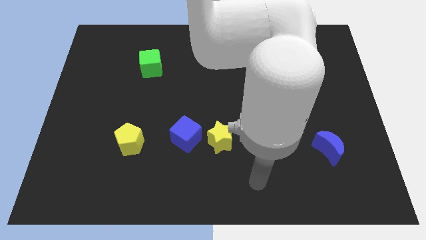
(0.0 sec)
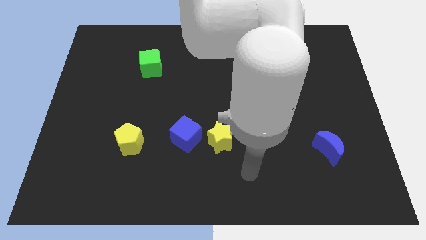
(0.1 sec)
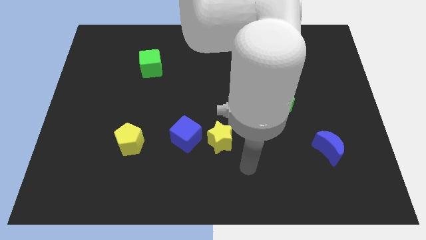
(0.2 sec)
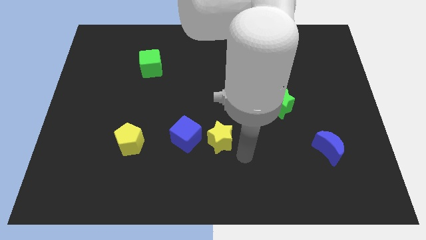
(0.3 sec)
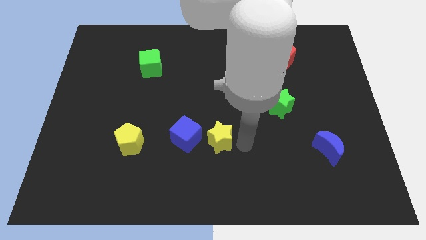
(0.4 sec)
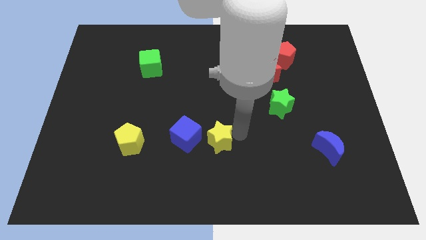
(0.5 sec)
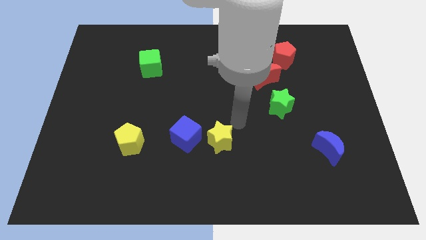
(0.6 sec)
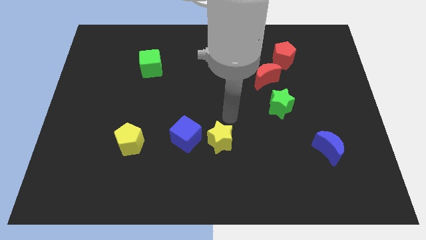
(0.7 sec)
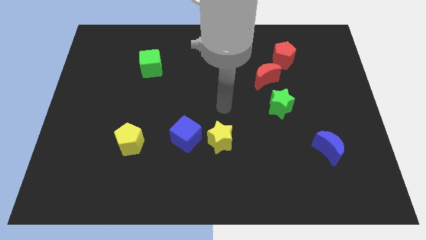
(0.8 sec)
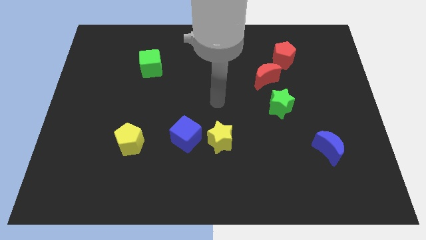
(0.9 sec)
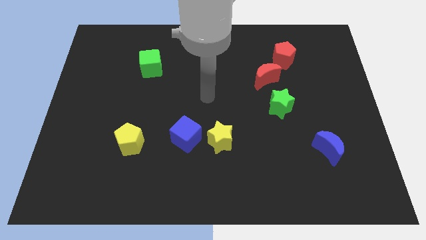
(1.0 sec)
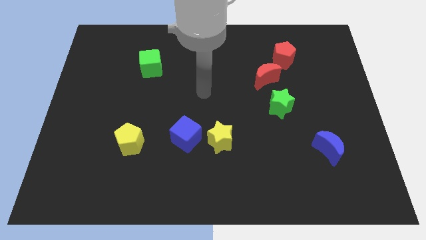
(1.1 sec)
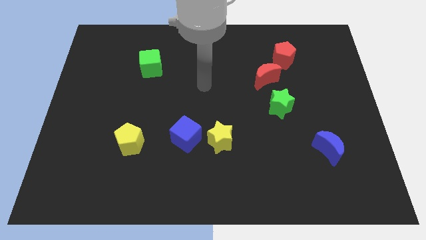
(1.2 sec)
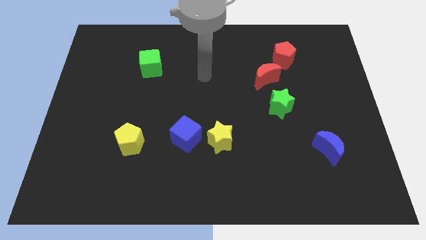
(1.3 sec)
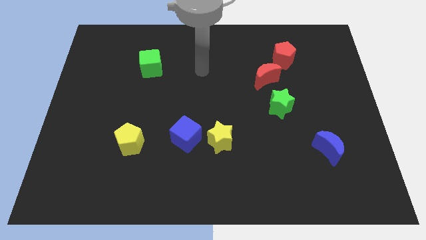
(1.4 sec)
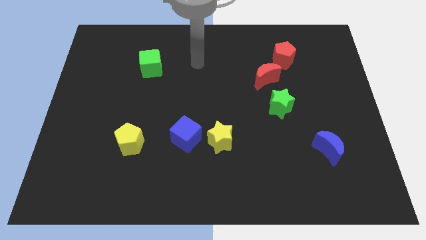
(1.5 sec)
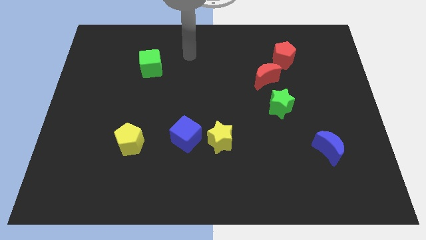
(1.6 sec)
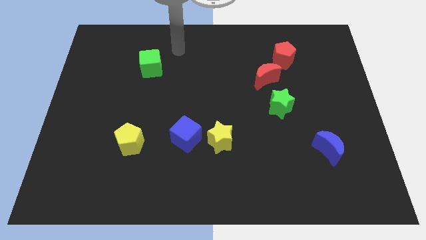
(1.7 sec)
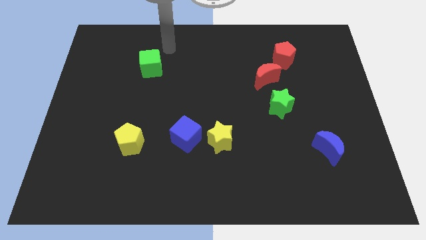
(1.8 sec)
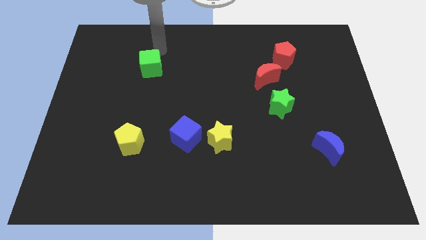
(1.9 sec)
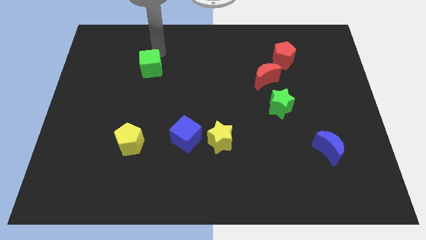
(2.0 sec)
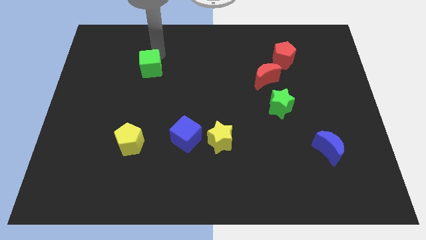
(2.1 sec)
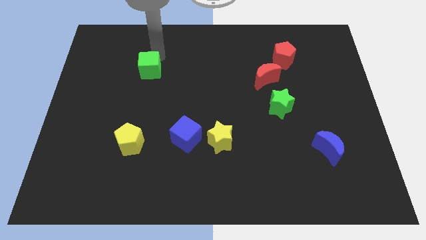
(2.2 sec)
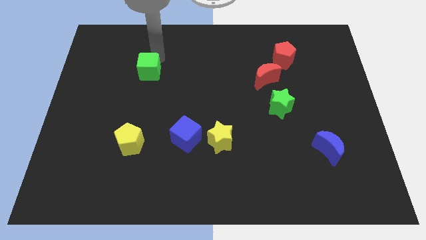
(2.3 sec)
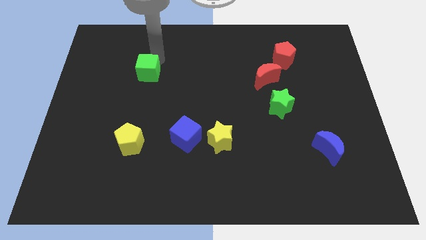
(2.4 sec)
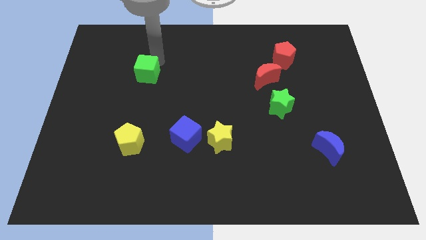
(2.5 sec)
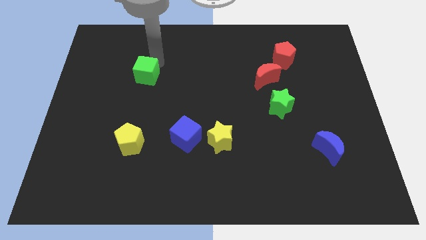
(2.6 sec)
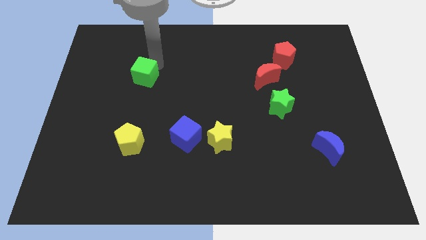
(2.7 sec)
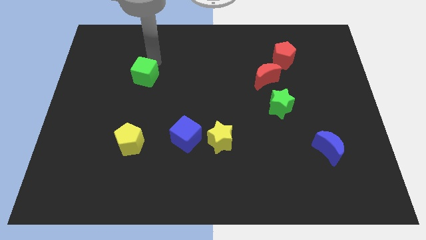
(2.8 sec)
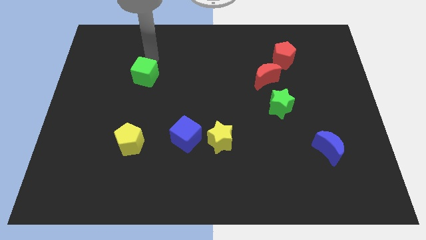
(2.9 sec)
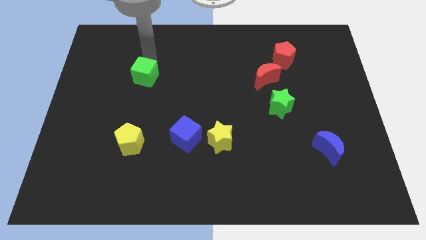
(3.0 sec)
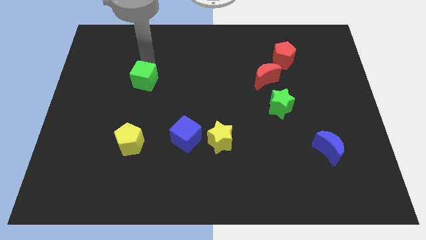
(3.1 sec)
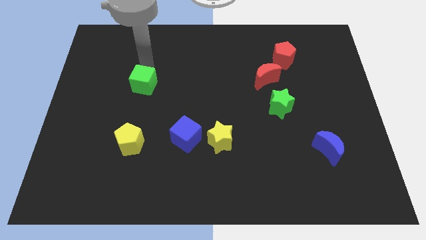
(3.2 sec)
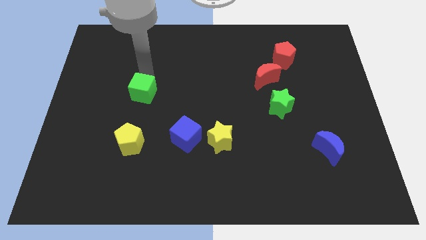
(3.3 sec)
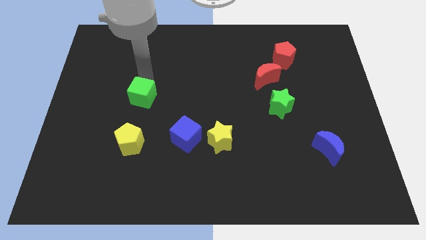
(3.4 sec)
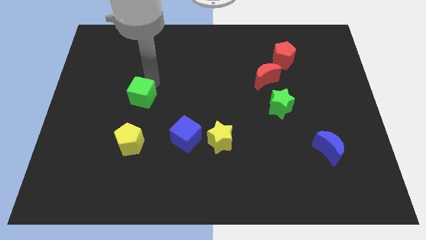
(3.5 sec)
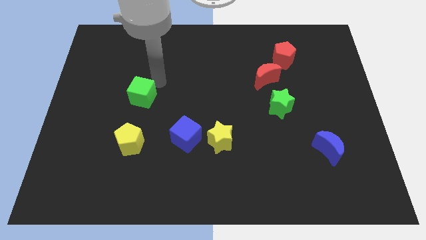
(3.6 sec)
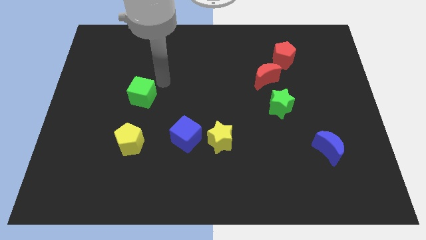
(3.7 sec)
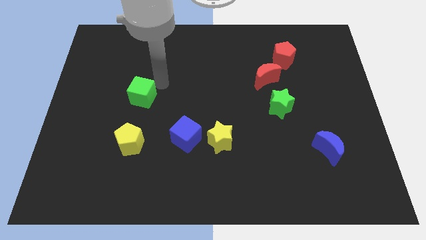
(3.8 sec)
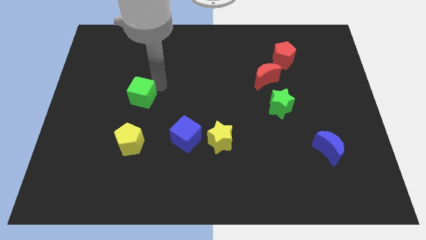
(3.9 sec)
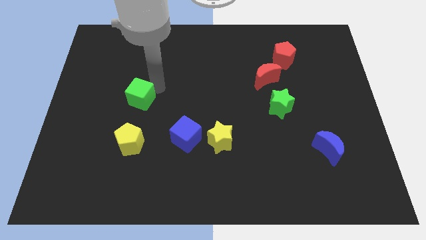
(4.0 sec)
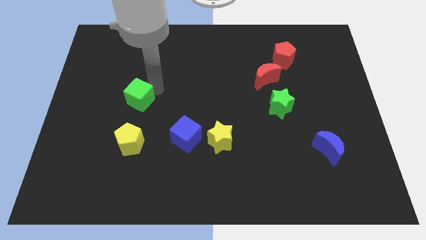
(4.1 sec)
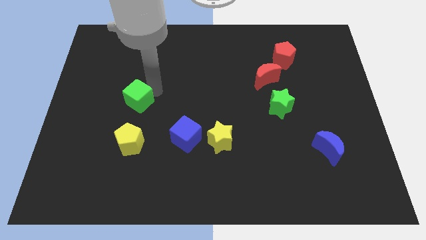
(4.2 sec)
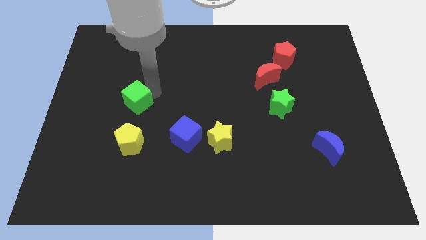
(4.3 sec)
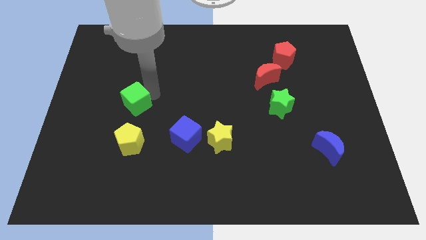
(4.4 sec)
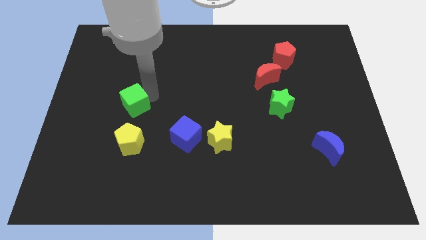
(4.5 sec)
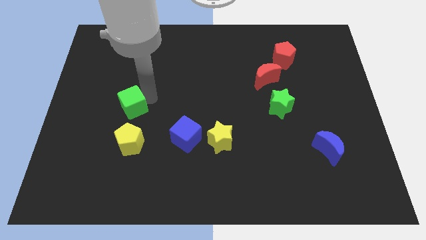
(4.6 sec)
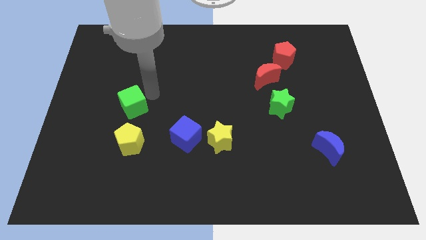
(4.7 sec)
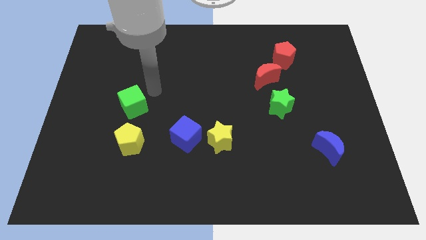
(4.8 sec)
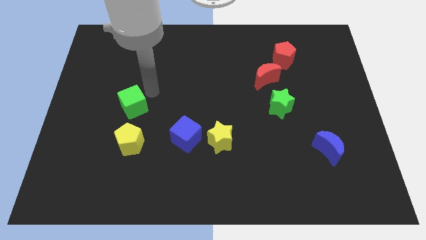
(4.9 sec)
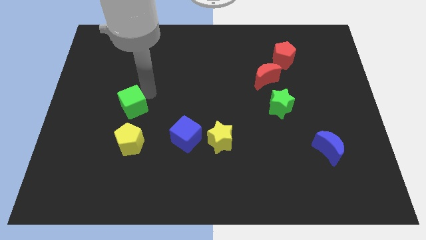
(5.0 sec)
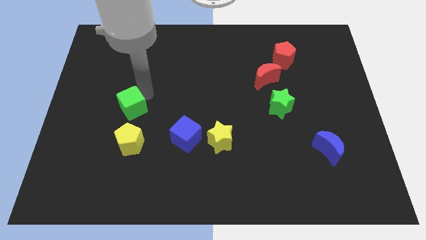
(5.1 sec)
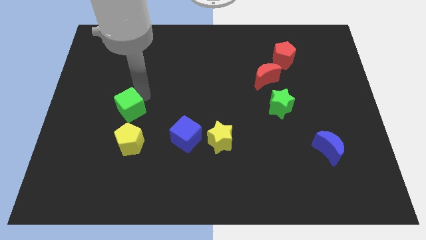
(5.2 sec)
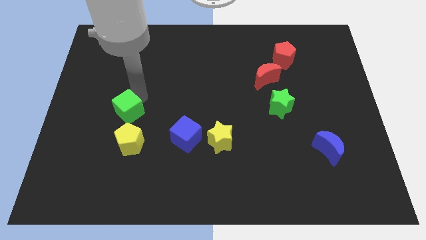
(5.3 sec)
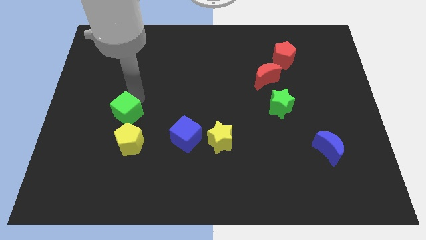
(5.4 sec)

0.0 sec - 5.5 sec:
move the green cube to the top left of the yellow pentagon

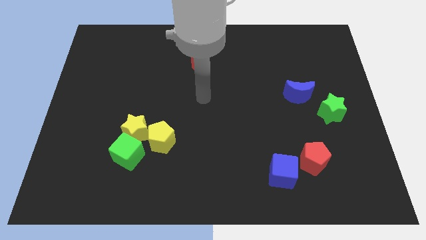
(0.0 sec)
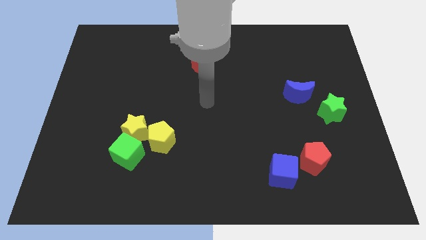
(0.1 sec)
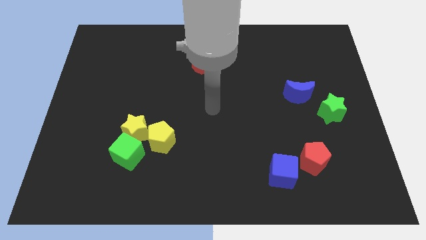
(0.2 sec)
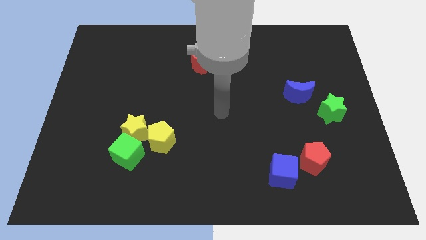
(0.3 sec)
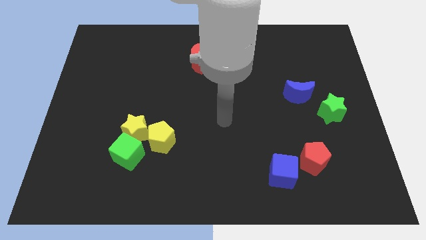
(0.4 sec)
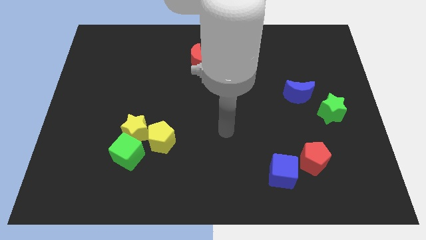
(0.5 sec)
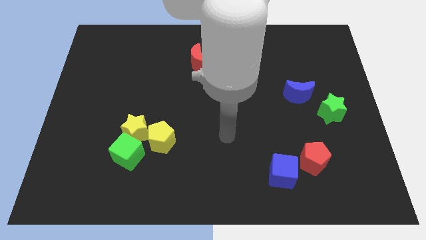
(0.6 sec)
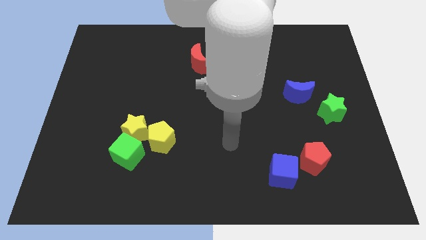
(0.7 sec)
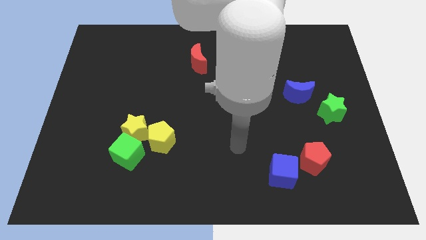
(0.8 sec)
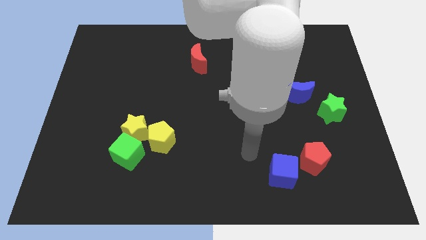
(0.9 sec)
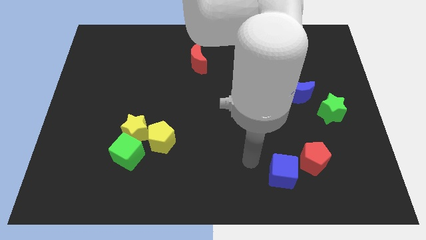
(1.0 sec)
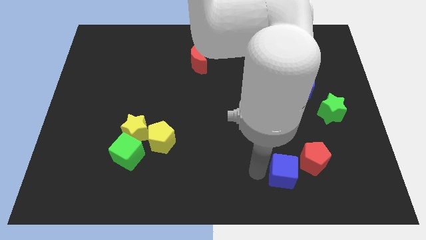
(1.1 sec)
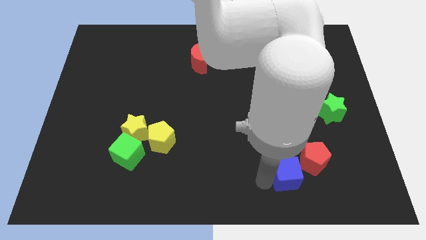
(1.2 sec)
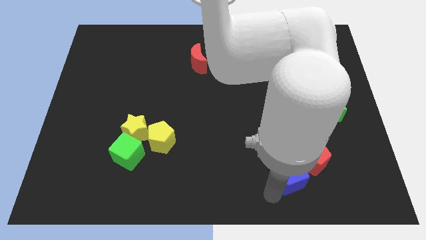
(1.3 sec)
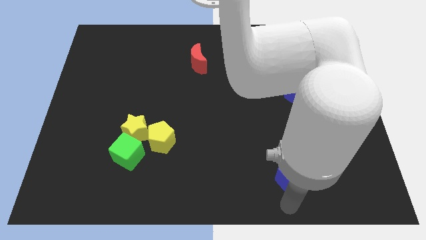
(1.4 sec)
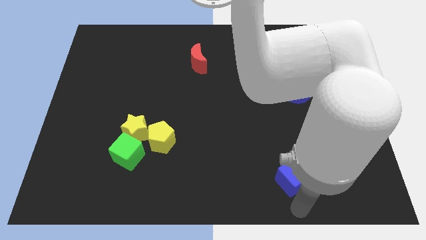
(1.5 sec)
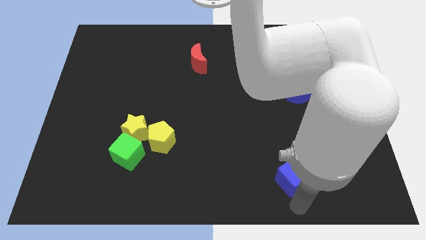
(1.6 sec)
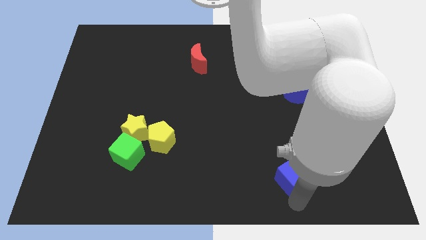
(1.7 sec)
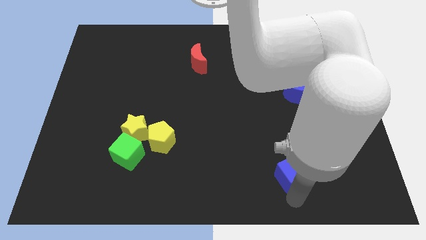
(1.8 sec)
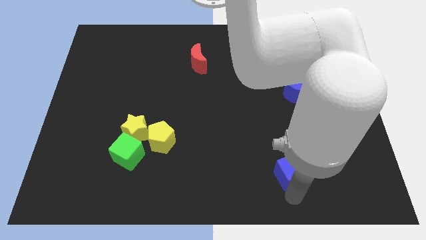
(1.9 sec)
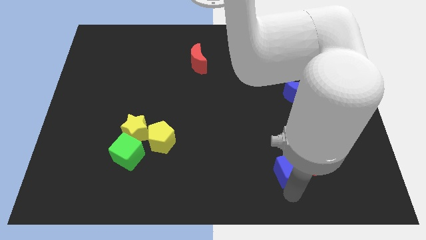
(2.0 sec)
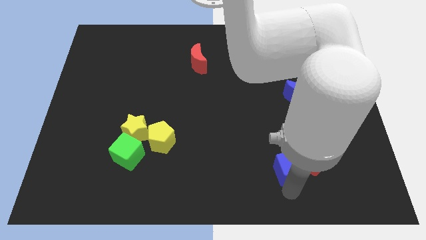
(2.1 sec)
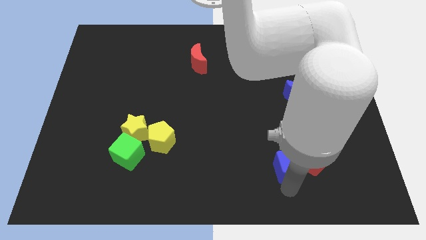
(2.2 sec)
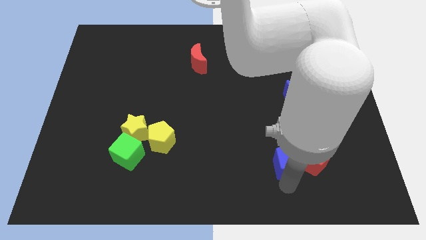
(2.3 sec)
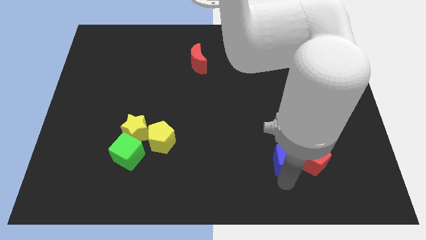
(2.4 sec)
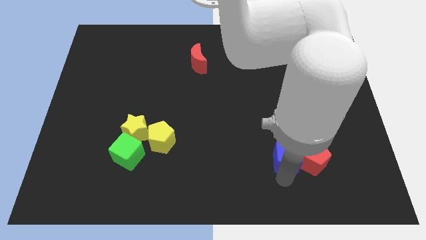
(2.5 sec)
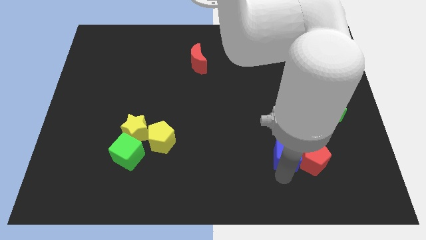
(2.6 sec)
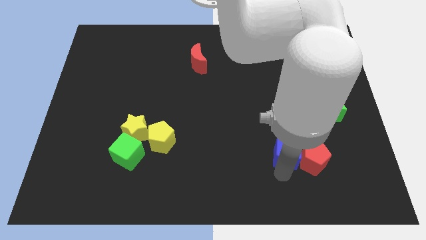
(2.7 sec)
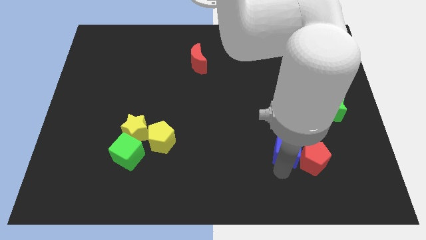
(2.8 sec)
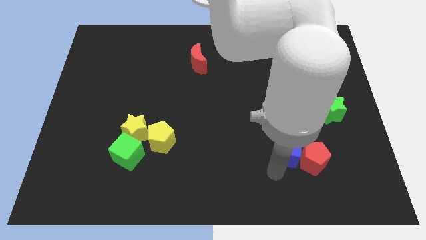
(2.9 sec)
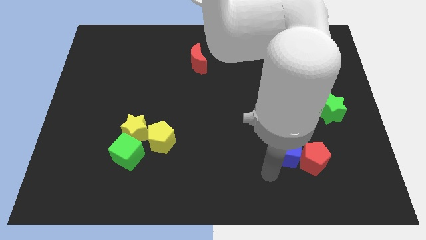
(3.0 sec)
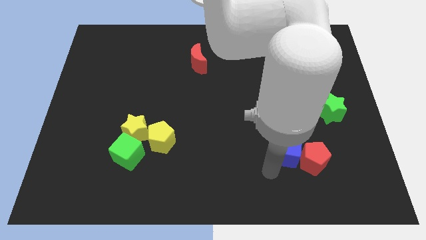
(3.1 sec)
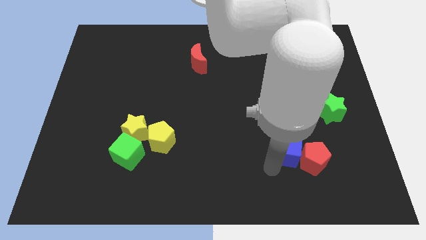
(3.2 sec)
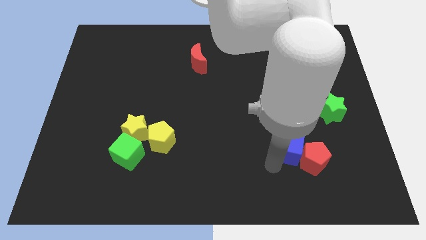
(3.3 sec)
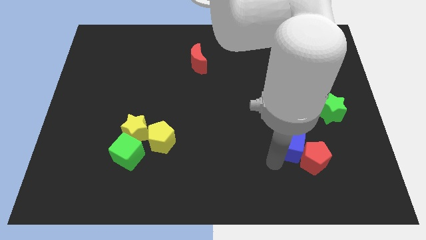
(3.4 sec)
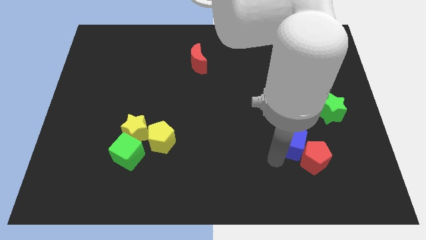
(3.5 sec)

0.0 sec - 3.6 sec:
put the blue cube below the blue moon
